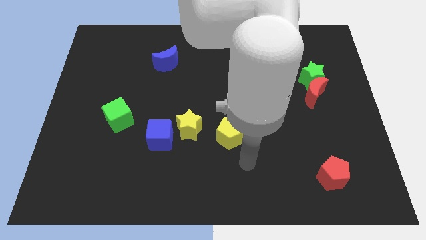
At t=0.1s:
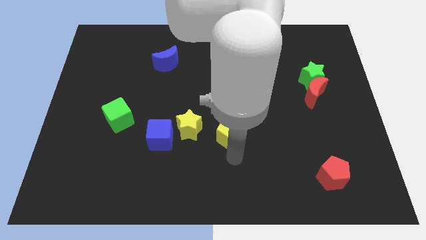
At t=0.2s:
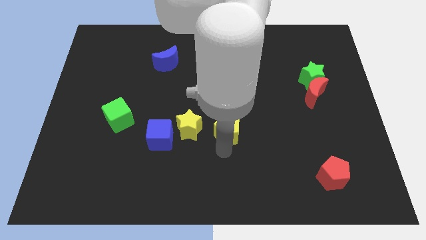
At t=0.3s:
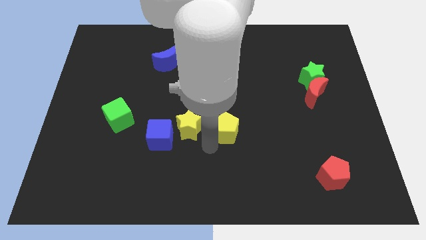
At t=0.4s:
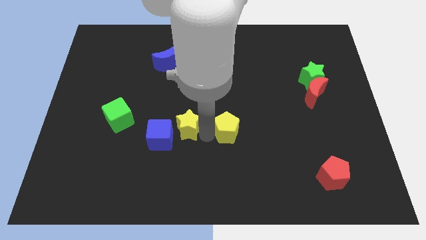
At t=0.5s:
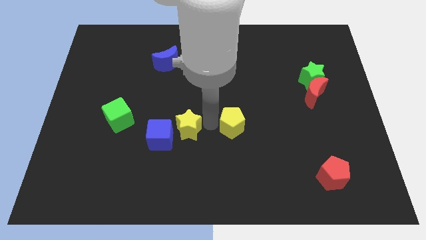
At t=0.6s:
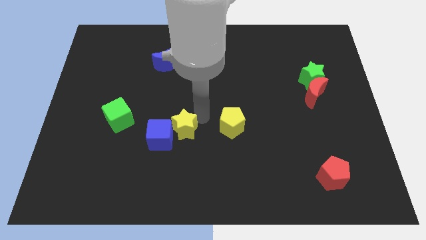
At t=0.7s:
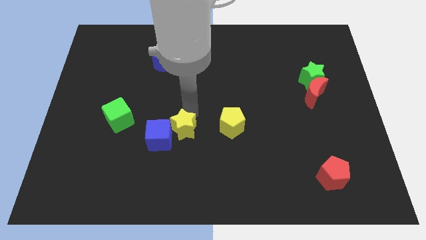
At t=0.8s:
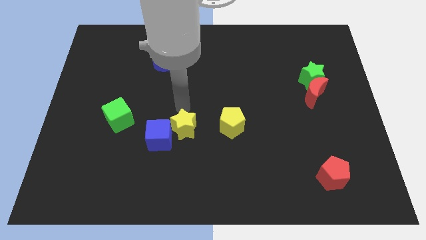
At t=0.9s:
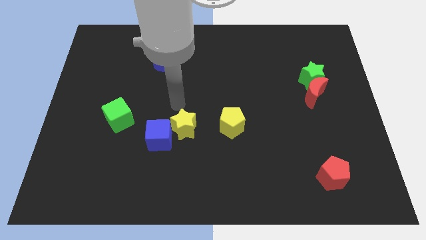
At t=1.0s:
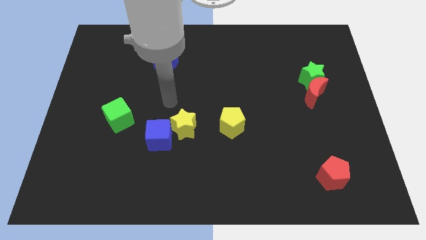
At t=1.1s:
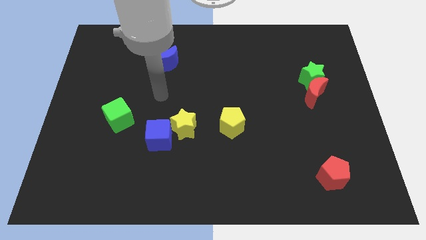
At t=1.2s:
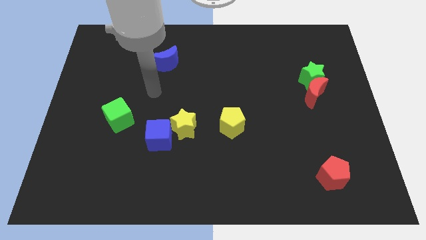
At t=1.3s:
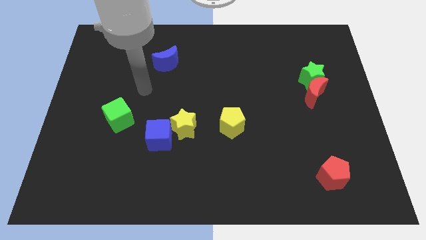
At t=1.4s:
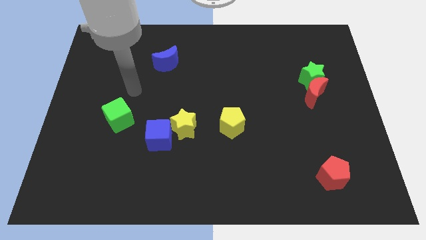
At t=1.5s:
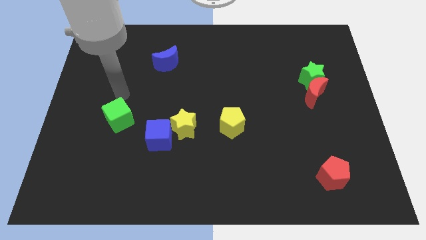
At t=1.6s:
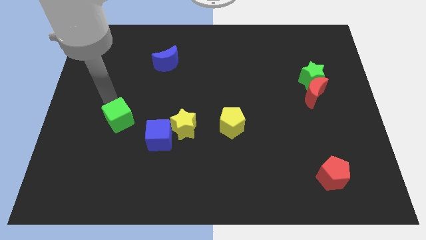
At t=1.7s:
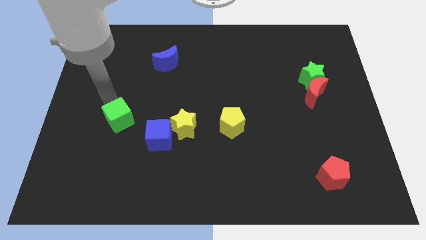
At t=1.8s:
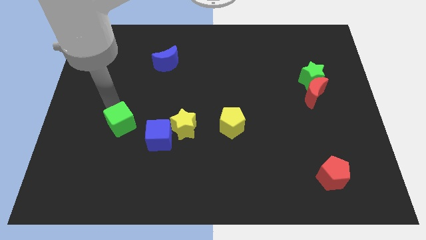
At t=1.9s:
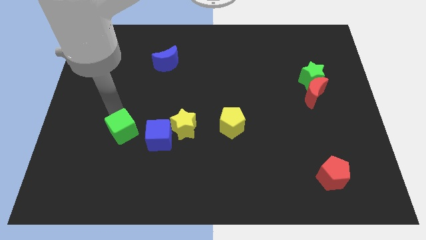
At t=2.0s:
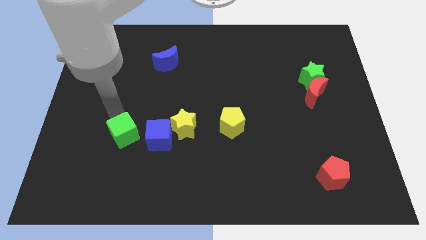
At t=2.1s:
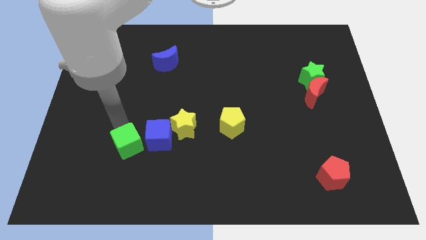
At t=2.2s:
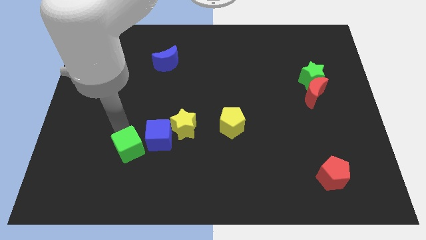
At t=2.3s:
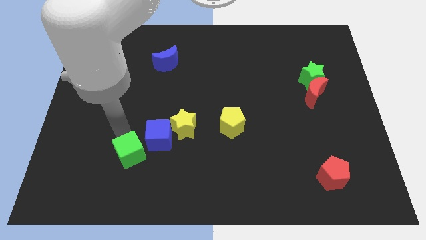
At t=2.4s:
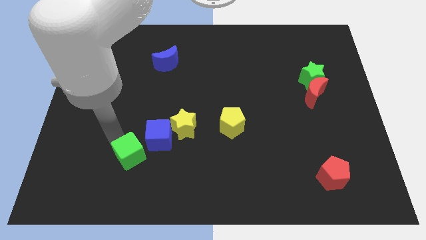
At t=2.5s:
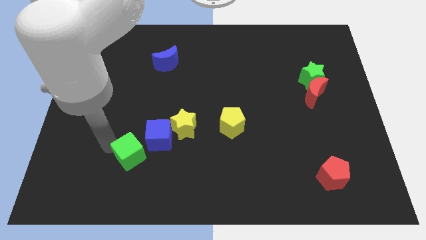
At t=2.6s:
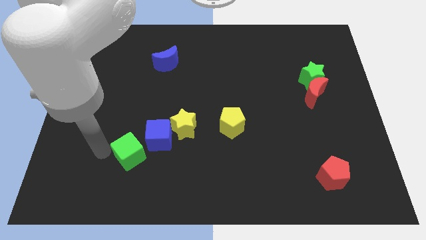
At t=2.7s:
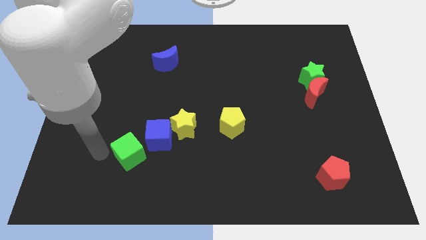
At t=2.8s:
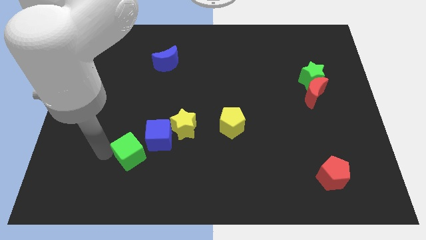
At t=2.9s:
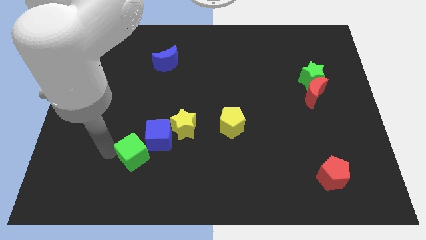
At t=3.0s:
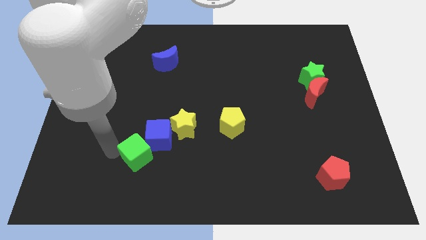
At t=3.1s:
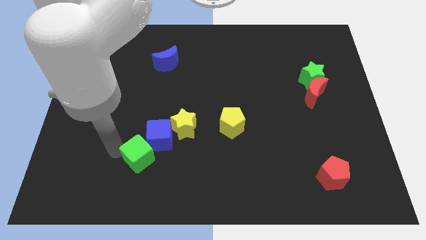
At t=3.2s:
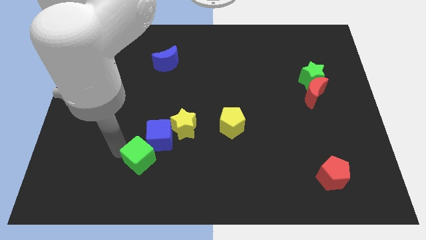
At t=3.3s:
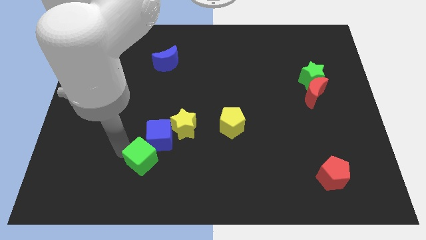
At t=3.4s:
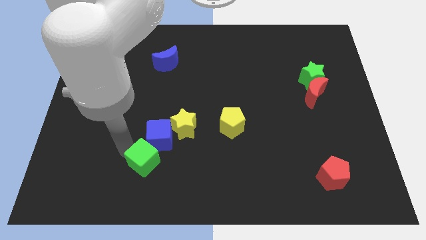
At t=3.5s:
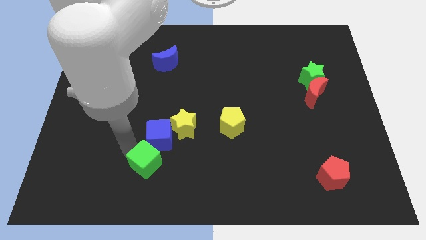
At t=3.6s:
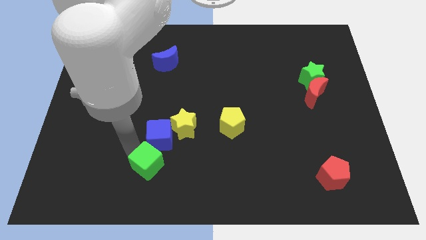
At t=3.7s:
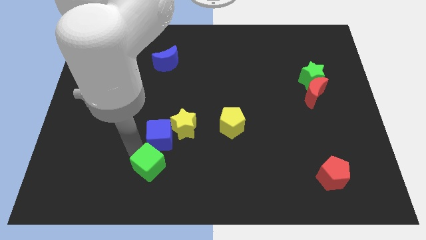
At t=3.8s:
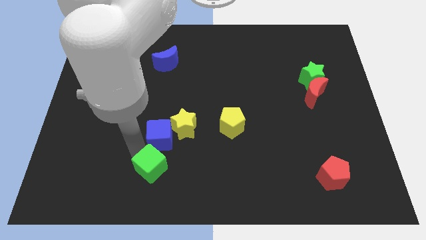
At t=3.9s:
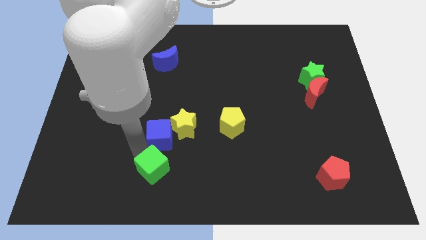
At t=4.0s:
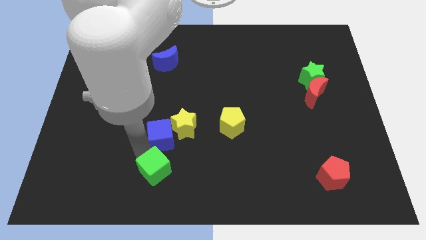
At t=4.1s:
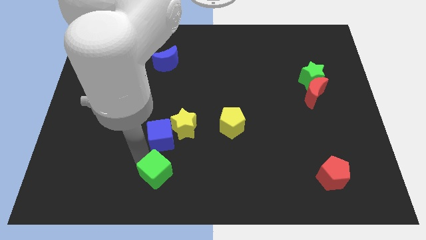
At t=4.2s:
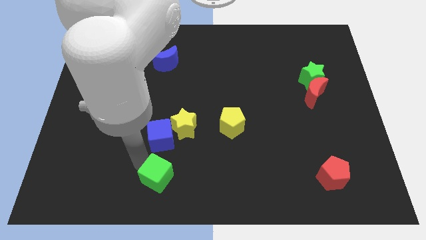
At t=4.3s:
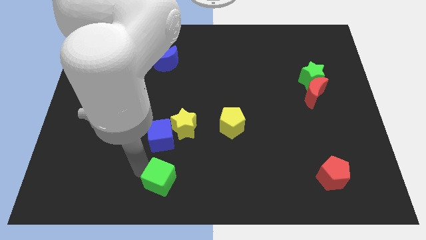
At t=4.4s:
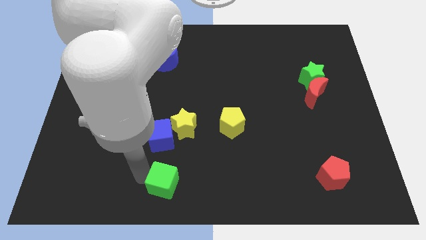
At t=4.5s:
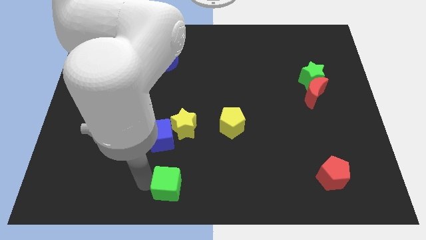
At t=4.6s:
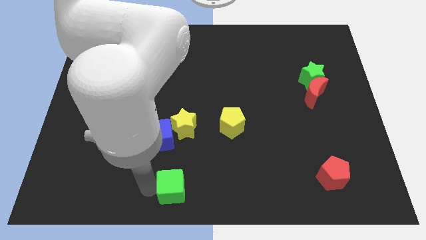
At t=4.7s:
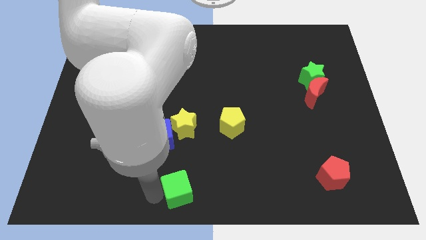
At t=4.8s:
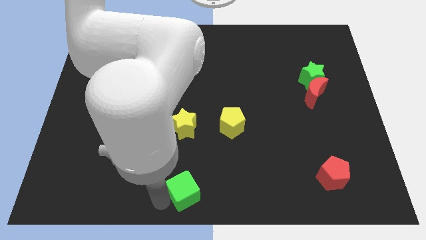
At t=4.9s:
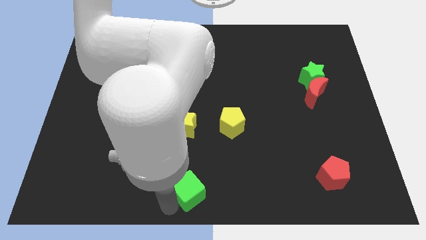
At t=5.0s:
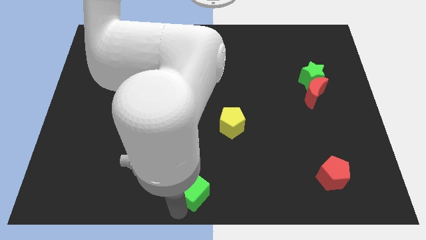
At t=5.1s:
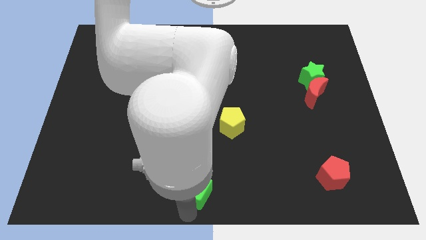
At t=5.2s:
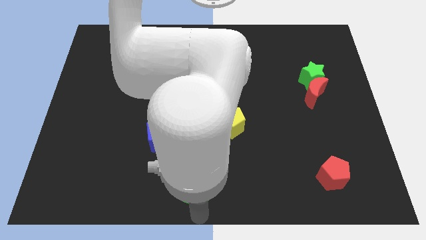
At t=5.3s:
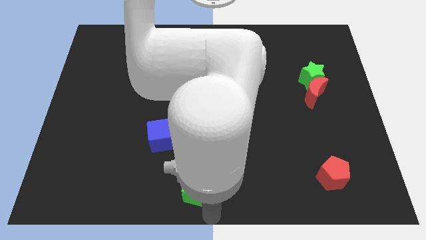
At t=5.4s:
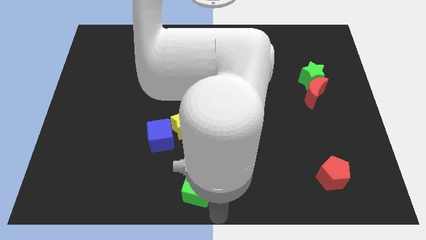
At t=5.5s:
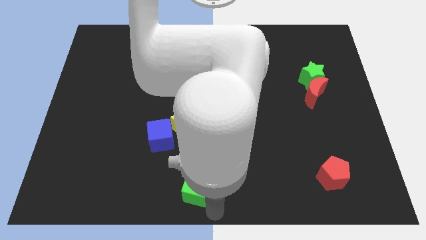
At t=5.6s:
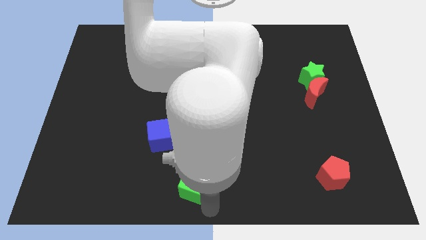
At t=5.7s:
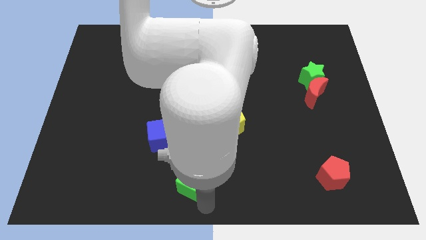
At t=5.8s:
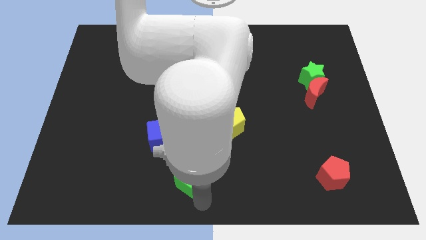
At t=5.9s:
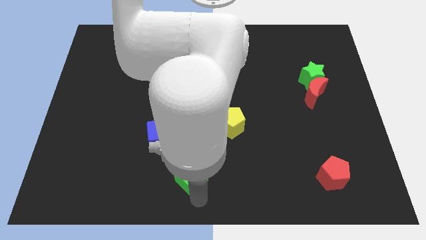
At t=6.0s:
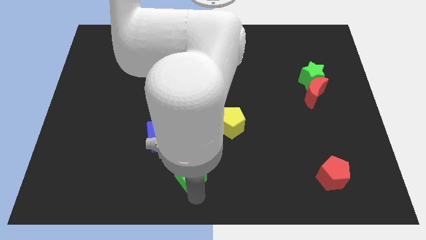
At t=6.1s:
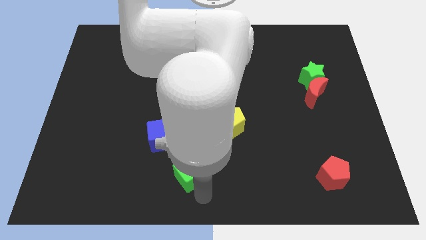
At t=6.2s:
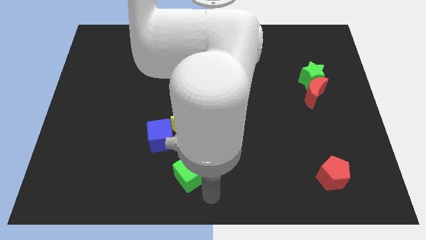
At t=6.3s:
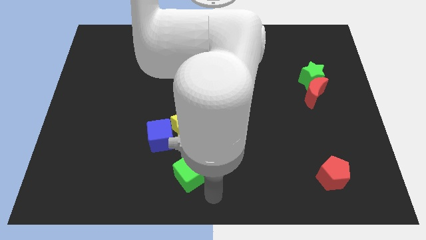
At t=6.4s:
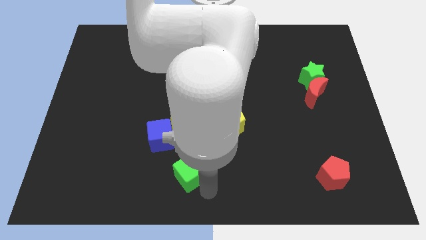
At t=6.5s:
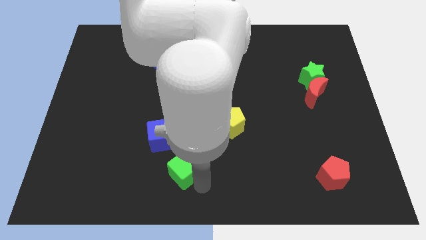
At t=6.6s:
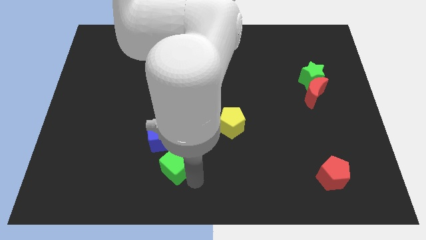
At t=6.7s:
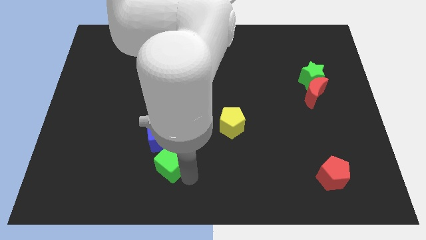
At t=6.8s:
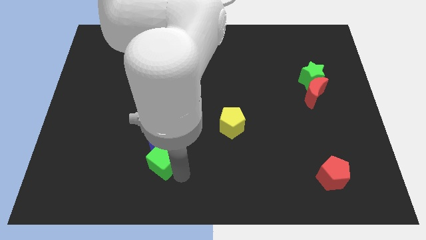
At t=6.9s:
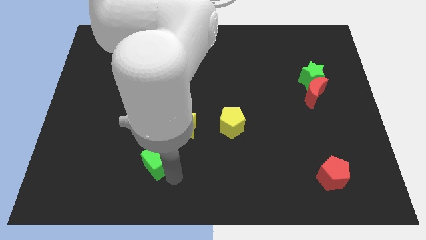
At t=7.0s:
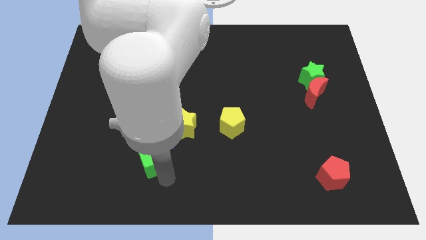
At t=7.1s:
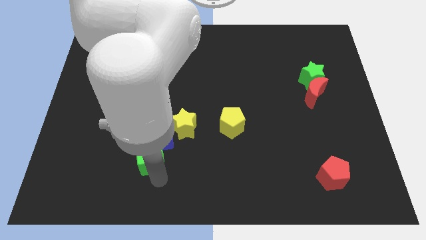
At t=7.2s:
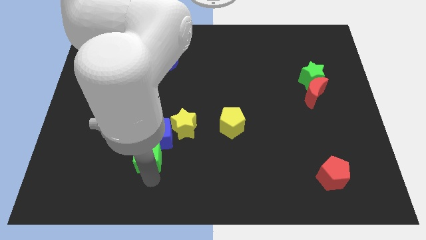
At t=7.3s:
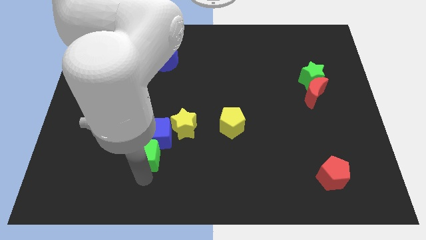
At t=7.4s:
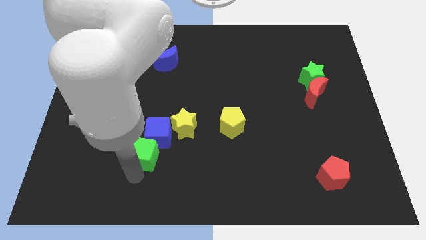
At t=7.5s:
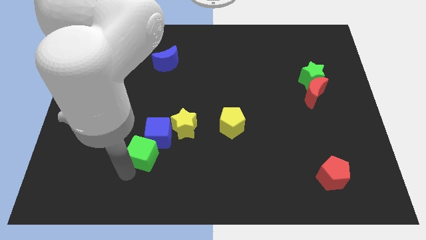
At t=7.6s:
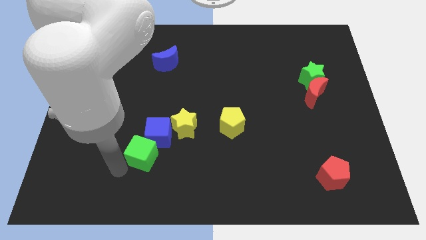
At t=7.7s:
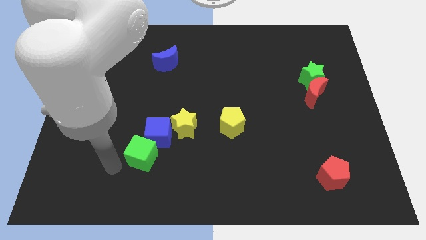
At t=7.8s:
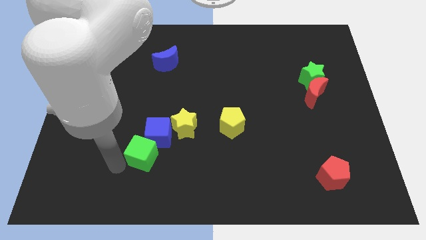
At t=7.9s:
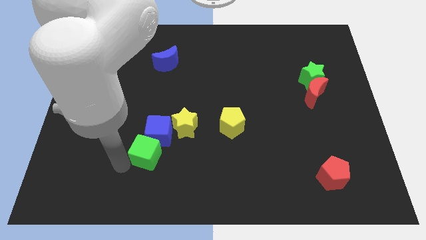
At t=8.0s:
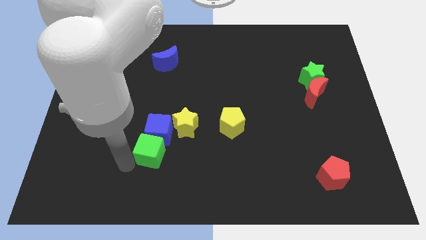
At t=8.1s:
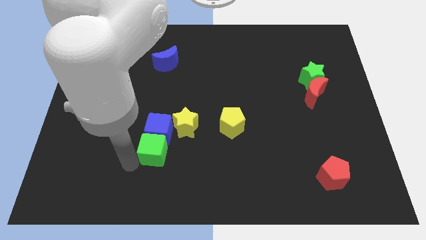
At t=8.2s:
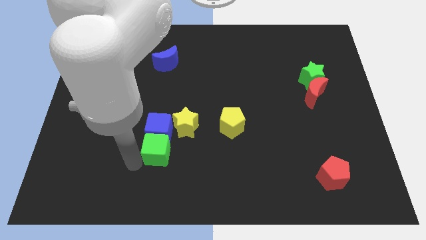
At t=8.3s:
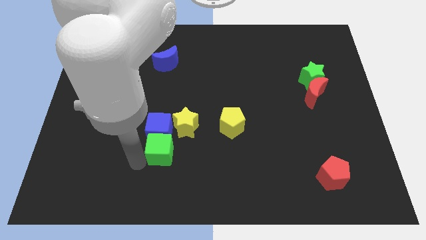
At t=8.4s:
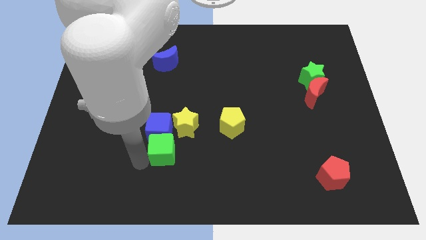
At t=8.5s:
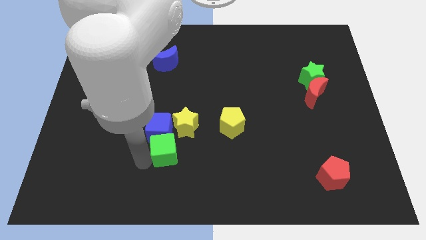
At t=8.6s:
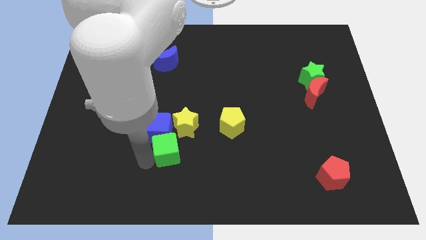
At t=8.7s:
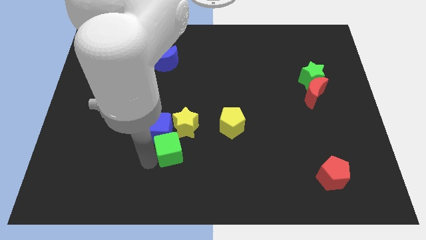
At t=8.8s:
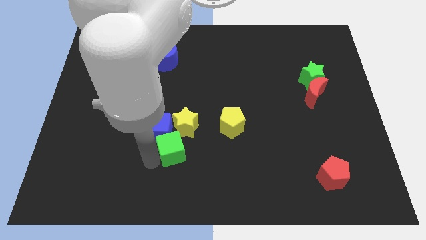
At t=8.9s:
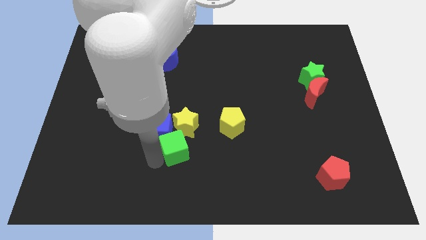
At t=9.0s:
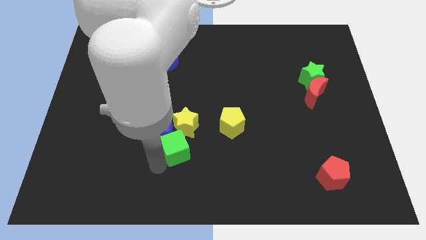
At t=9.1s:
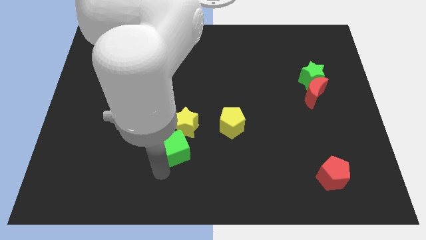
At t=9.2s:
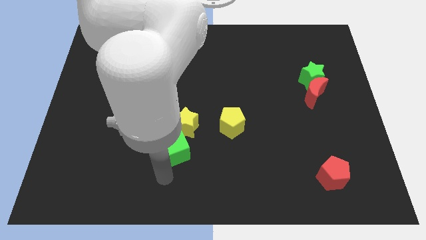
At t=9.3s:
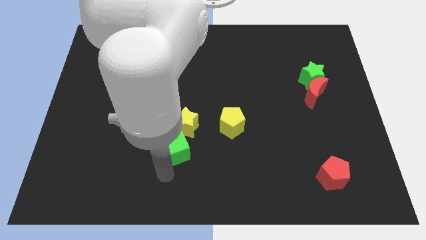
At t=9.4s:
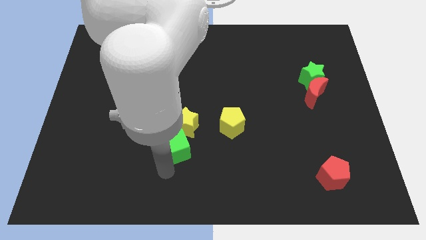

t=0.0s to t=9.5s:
move the green cube to the yellow star
